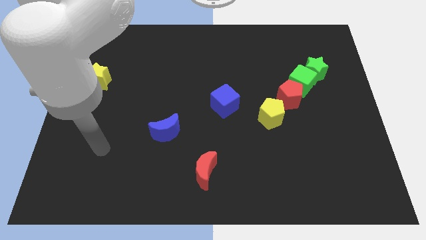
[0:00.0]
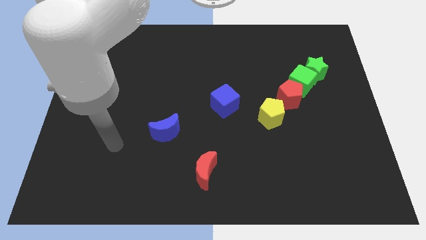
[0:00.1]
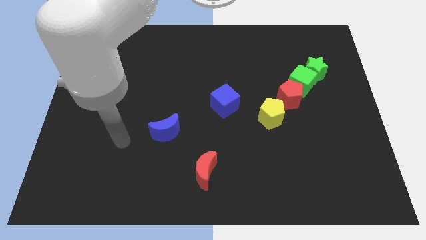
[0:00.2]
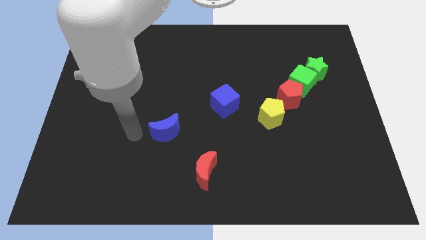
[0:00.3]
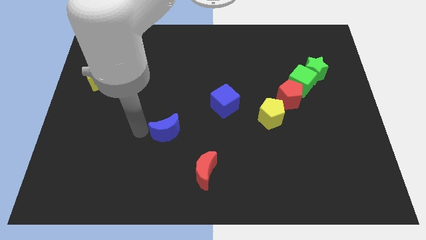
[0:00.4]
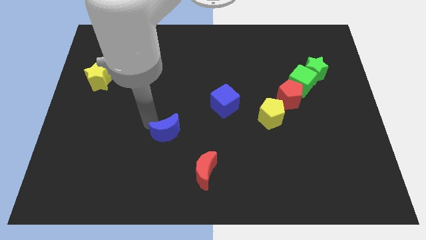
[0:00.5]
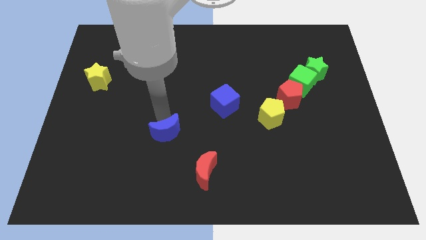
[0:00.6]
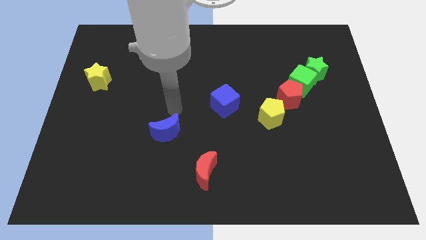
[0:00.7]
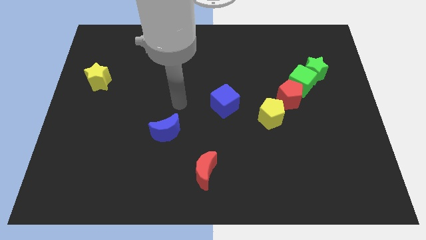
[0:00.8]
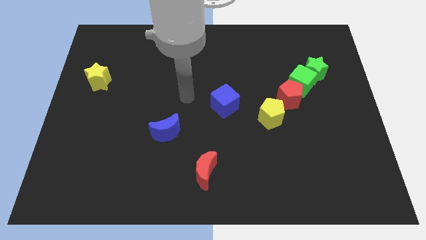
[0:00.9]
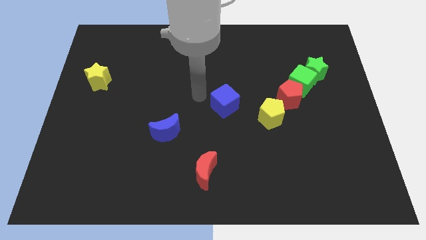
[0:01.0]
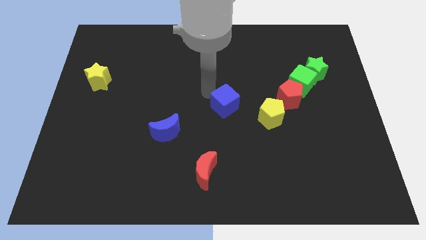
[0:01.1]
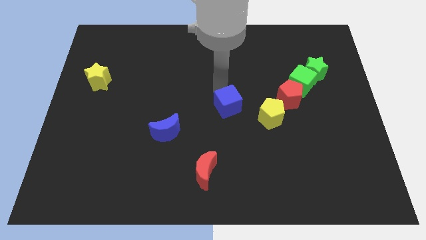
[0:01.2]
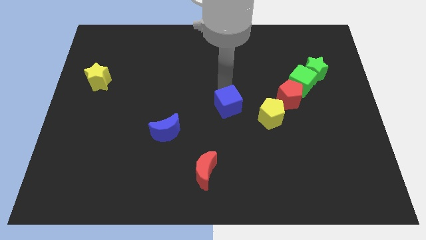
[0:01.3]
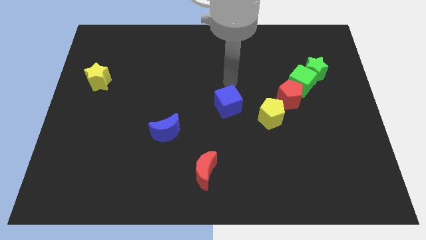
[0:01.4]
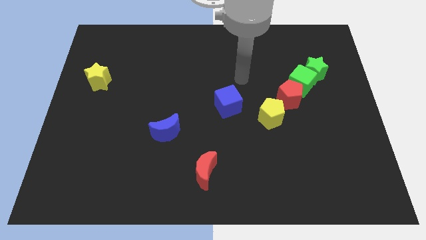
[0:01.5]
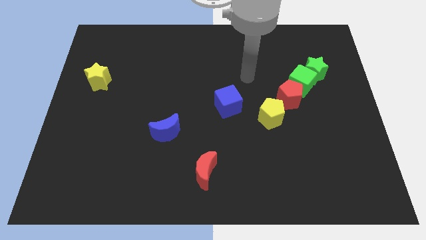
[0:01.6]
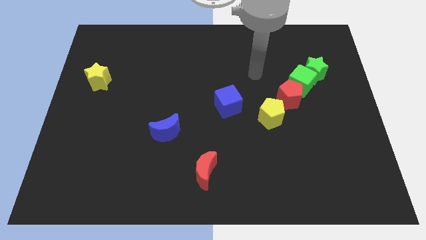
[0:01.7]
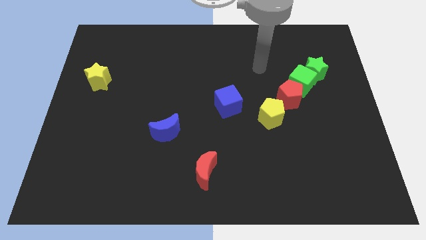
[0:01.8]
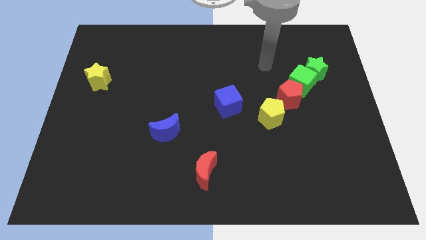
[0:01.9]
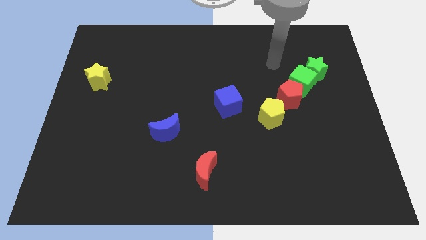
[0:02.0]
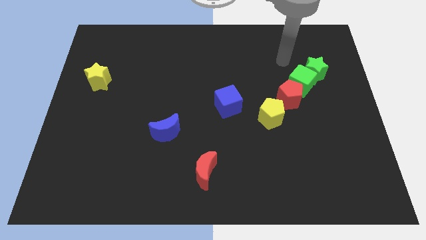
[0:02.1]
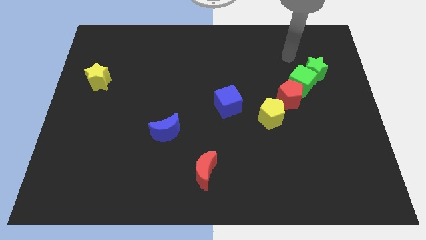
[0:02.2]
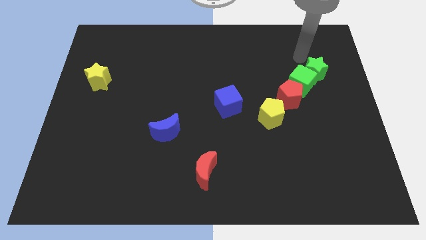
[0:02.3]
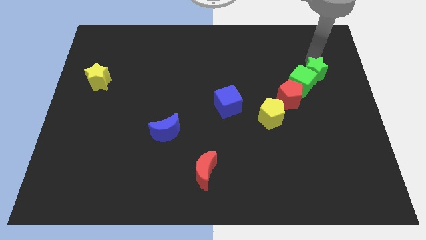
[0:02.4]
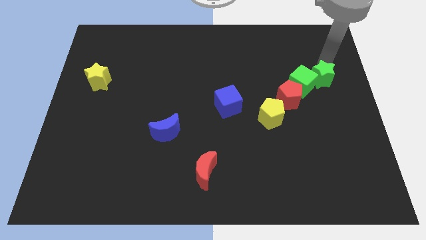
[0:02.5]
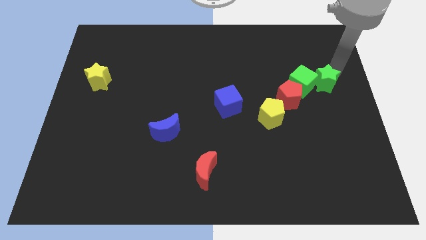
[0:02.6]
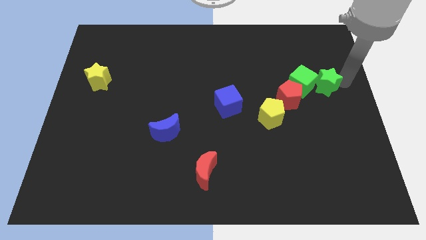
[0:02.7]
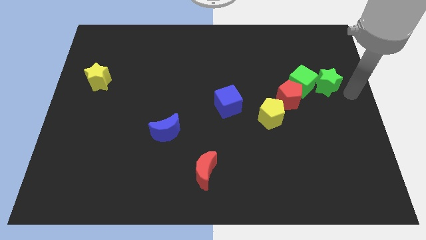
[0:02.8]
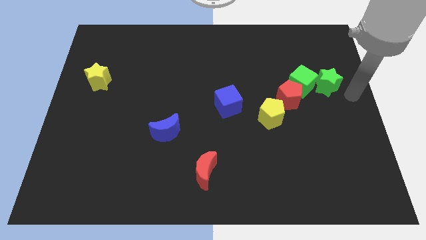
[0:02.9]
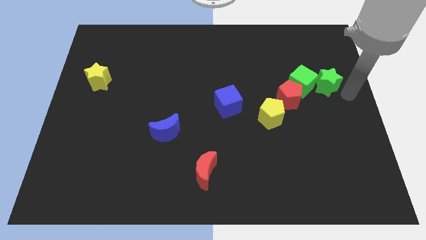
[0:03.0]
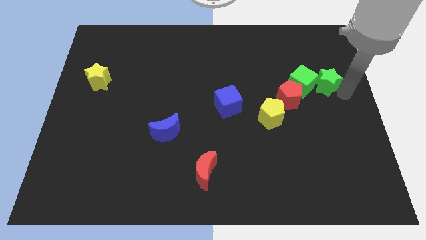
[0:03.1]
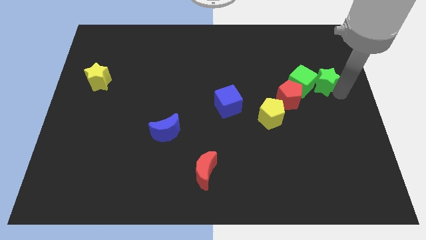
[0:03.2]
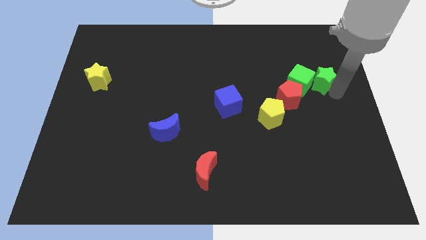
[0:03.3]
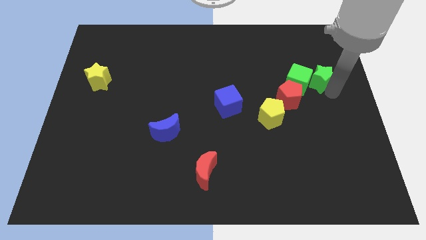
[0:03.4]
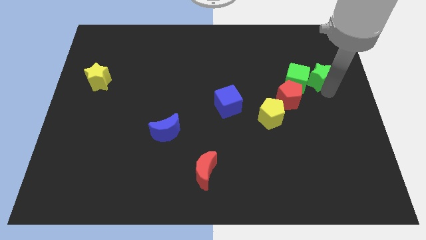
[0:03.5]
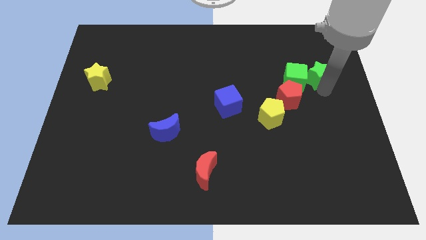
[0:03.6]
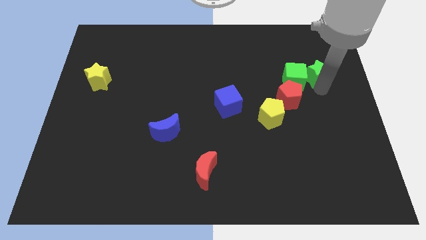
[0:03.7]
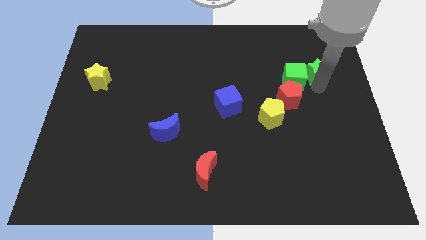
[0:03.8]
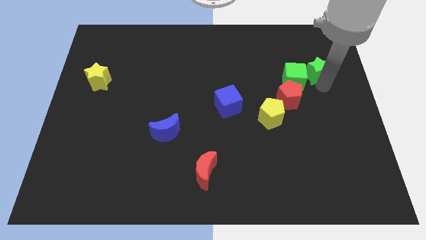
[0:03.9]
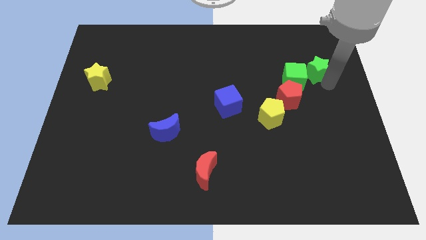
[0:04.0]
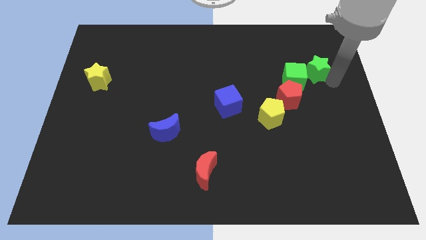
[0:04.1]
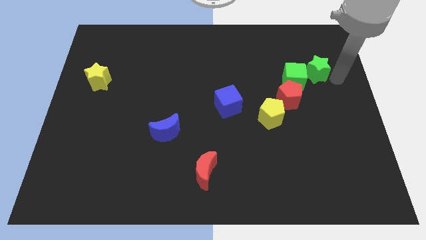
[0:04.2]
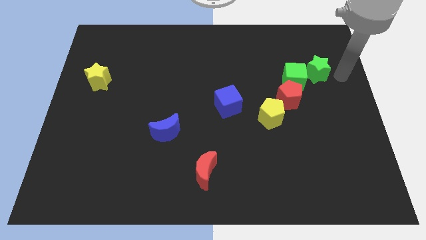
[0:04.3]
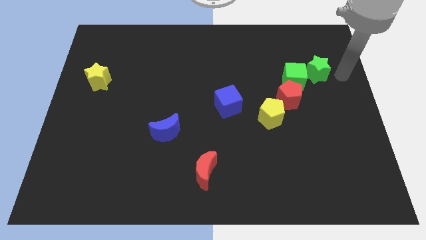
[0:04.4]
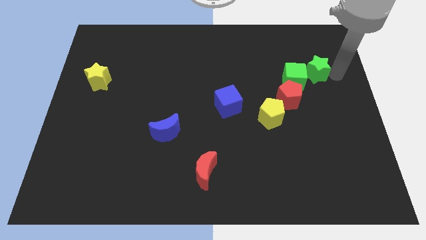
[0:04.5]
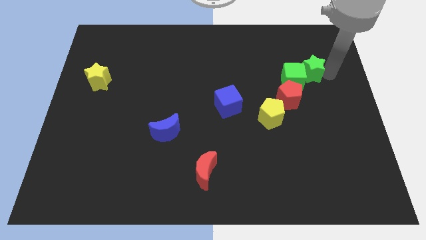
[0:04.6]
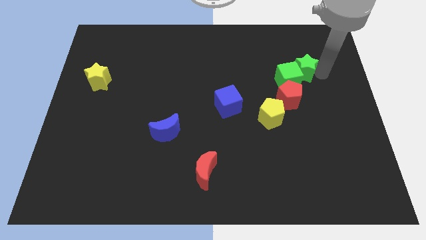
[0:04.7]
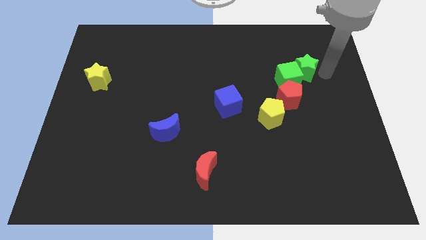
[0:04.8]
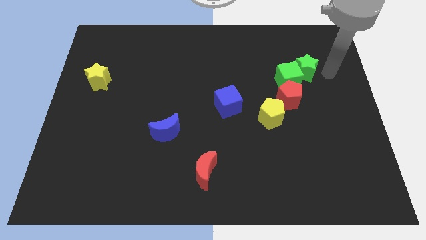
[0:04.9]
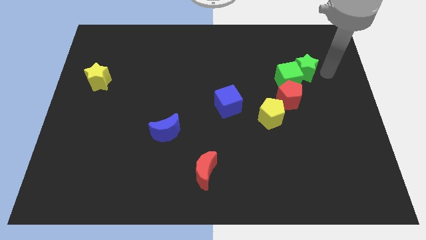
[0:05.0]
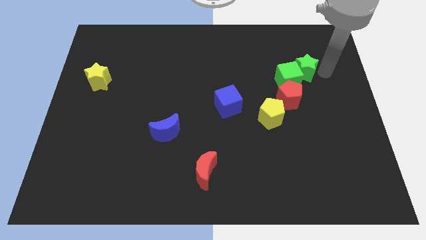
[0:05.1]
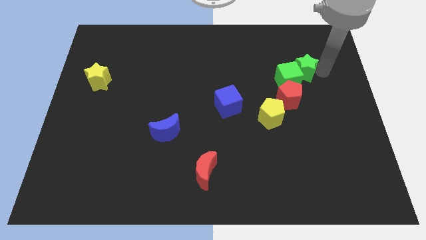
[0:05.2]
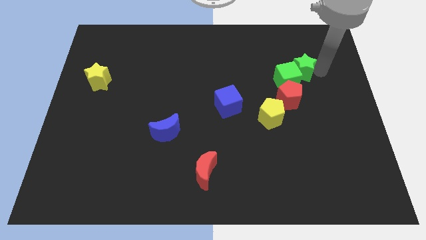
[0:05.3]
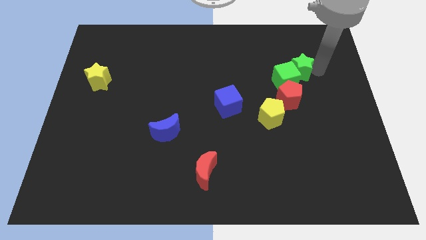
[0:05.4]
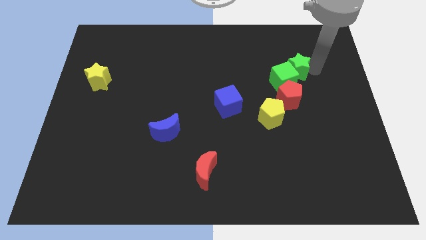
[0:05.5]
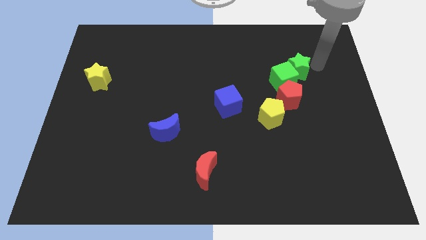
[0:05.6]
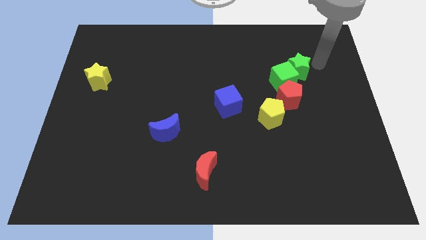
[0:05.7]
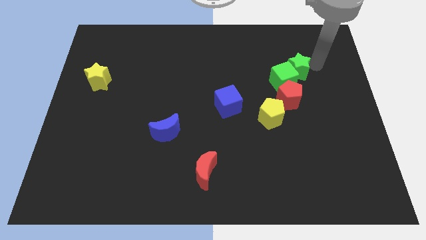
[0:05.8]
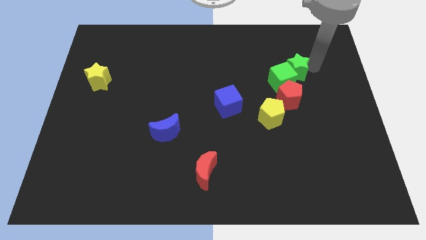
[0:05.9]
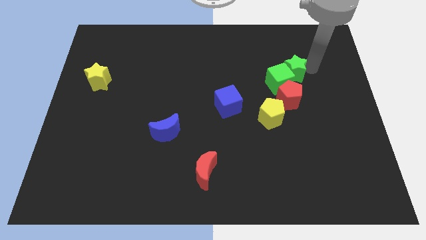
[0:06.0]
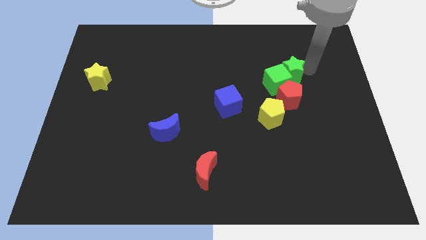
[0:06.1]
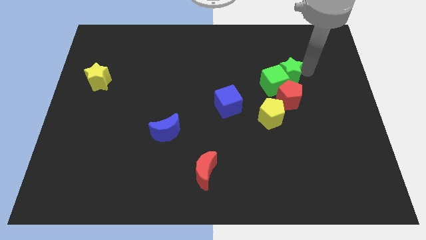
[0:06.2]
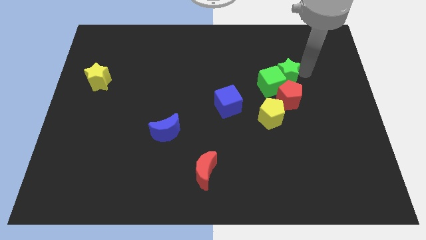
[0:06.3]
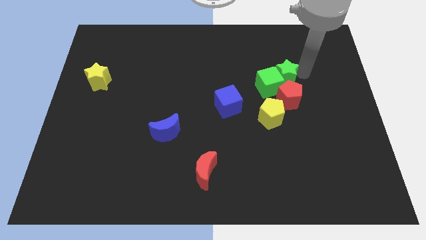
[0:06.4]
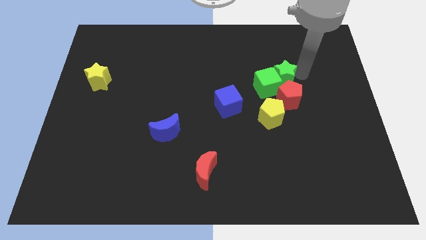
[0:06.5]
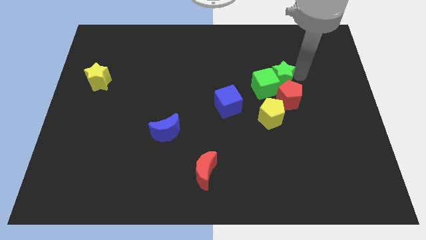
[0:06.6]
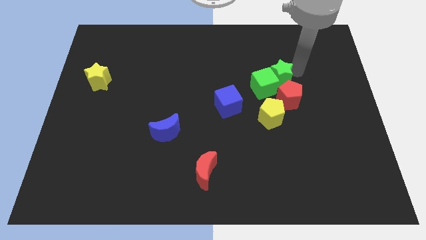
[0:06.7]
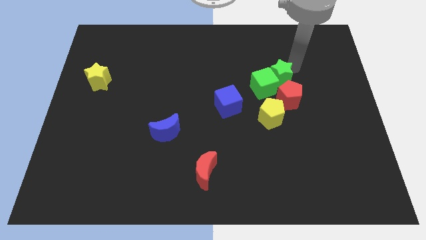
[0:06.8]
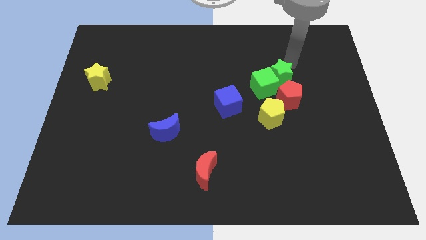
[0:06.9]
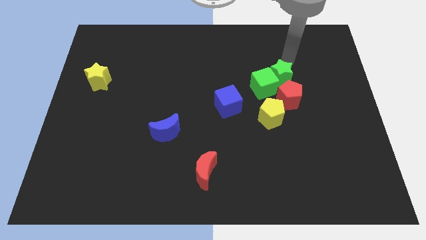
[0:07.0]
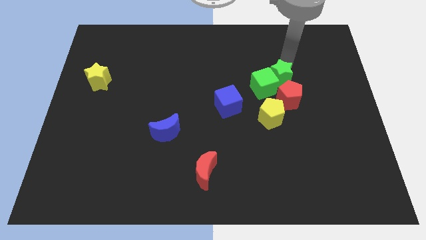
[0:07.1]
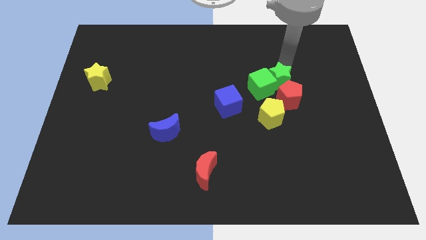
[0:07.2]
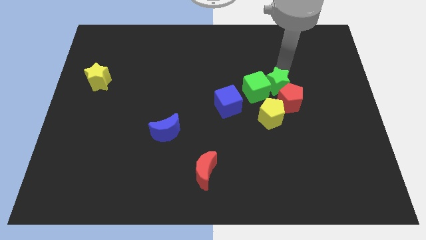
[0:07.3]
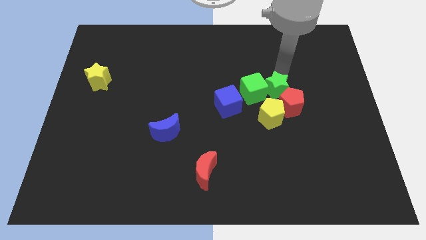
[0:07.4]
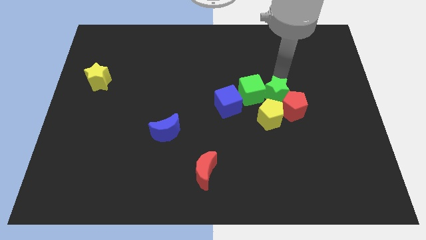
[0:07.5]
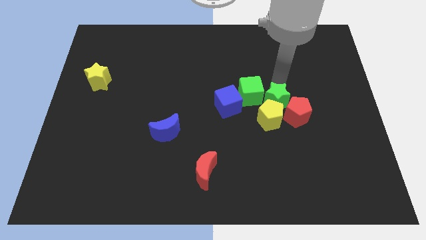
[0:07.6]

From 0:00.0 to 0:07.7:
move the green star close to the yellow pentagon
